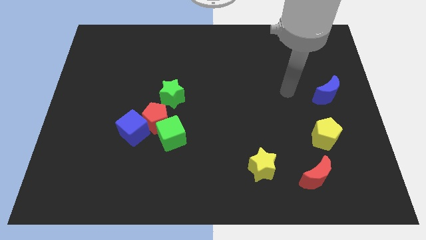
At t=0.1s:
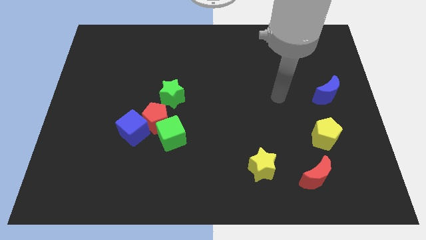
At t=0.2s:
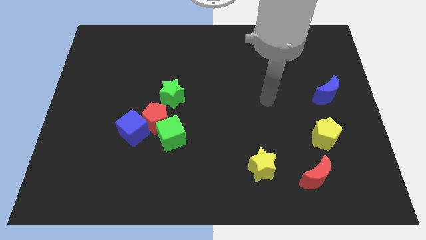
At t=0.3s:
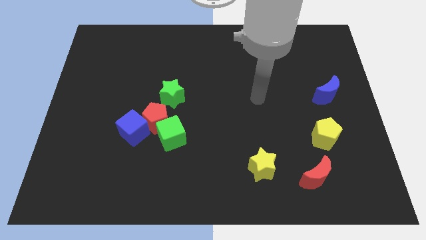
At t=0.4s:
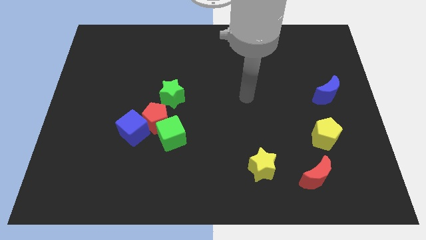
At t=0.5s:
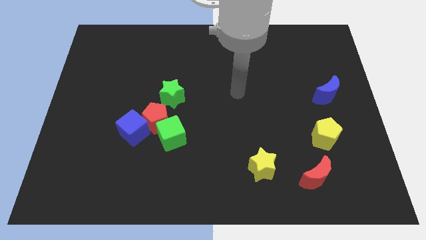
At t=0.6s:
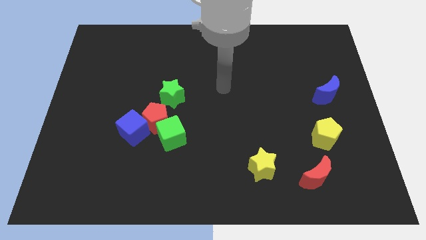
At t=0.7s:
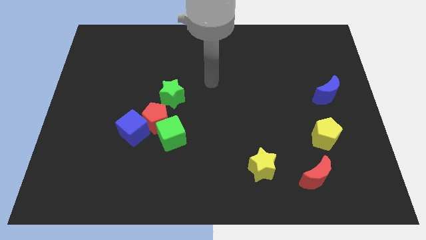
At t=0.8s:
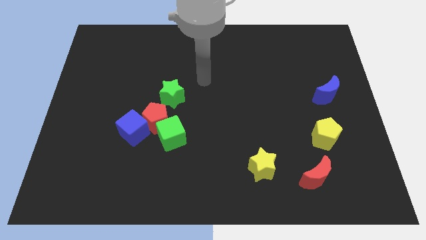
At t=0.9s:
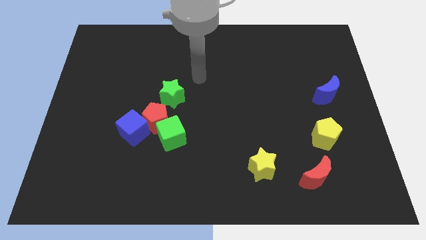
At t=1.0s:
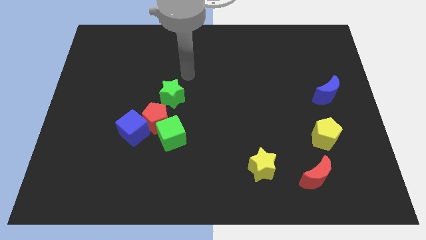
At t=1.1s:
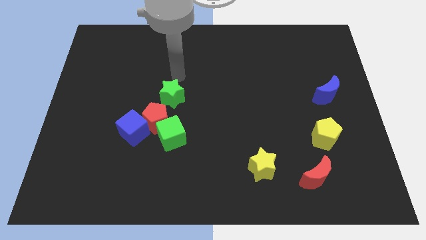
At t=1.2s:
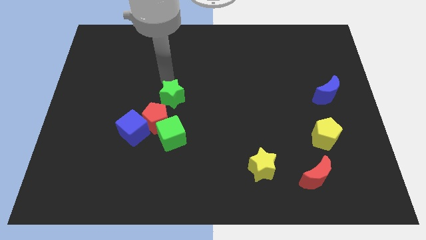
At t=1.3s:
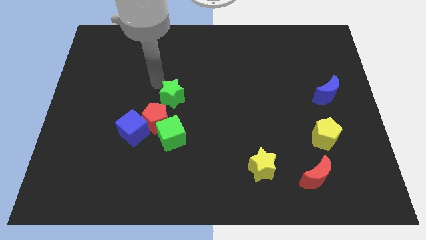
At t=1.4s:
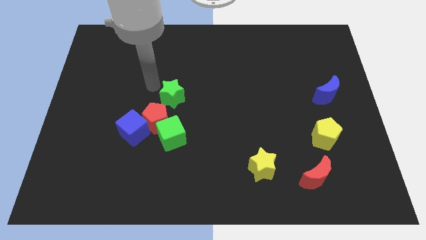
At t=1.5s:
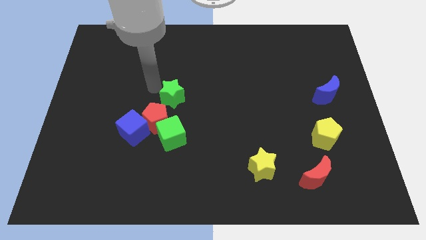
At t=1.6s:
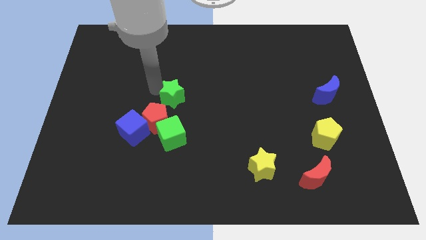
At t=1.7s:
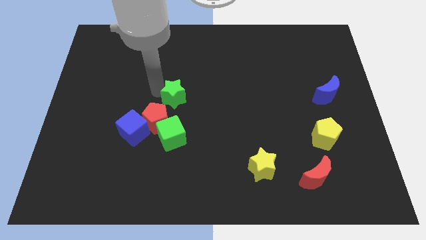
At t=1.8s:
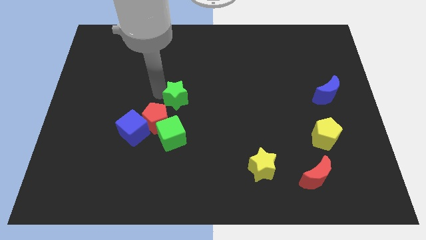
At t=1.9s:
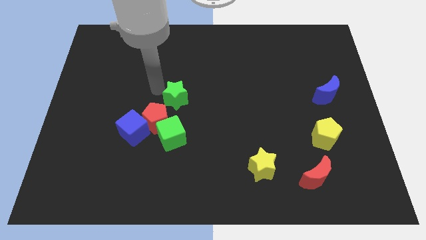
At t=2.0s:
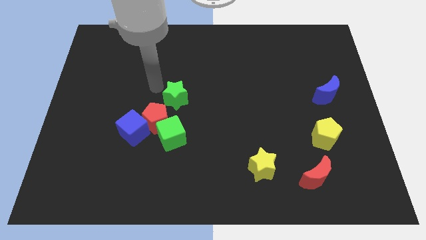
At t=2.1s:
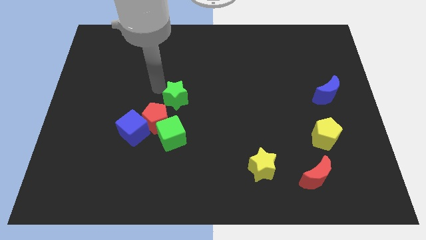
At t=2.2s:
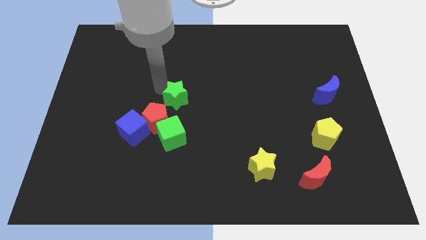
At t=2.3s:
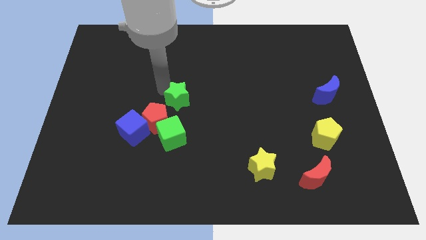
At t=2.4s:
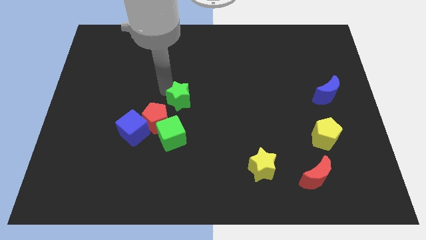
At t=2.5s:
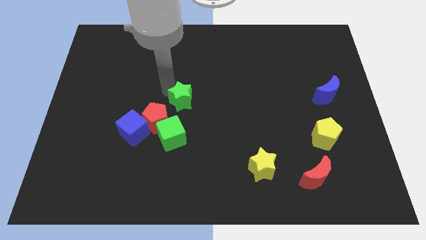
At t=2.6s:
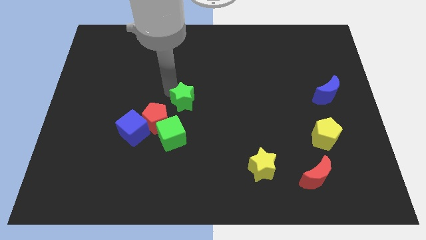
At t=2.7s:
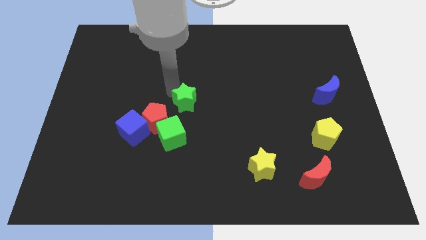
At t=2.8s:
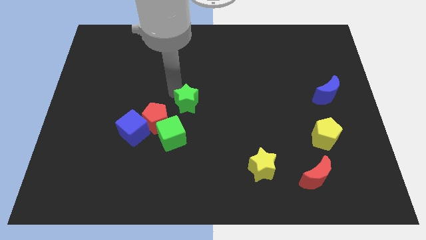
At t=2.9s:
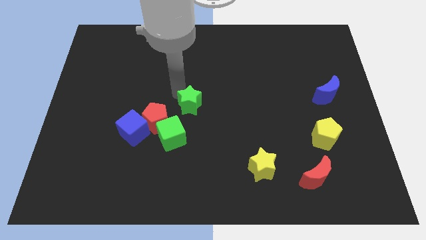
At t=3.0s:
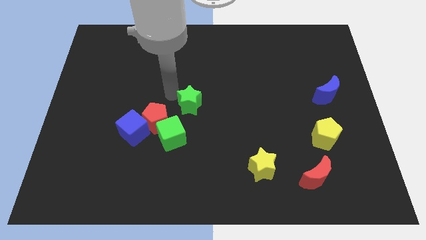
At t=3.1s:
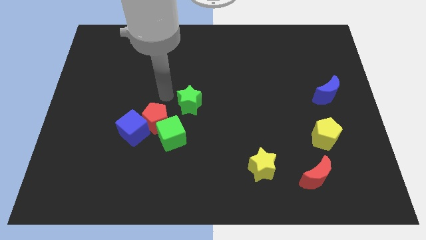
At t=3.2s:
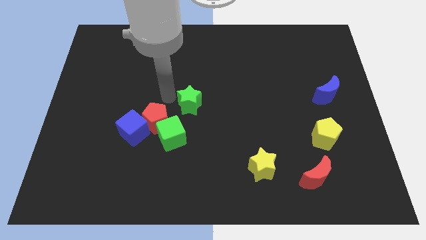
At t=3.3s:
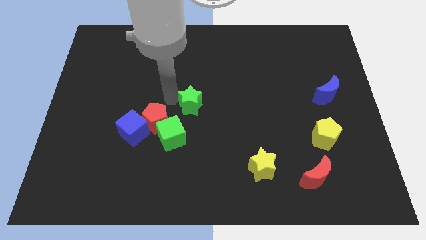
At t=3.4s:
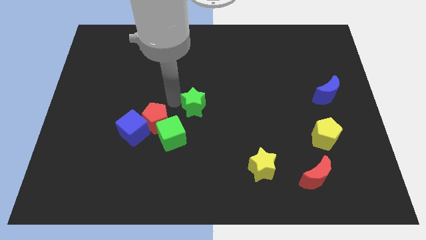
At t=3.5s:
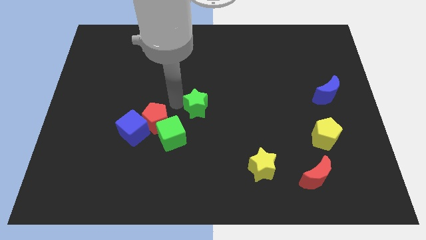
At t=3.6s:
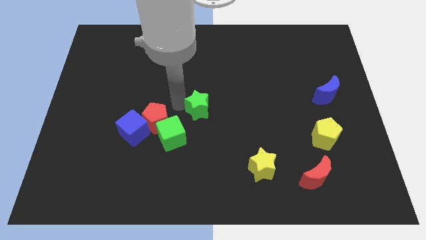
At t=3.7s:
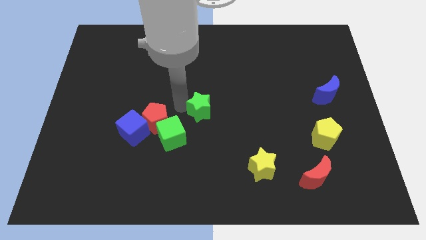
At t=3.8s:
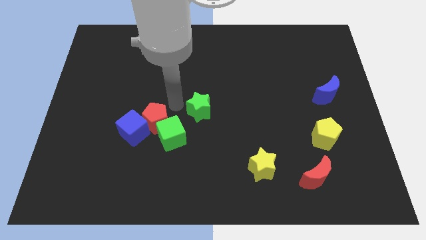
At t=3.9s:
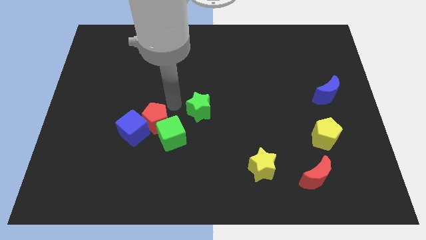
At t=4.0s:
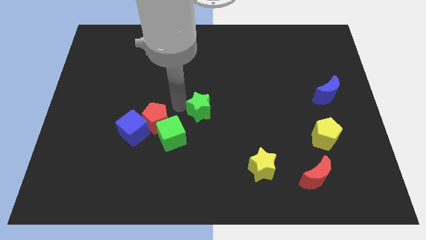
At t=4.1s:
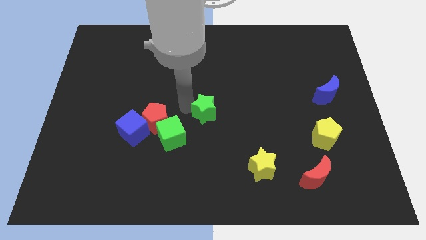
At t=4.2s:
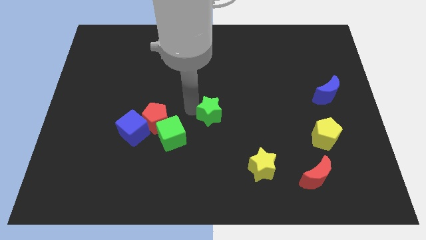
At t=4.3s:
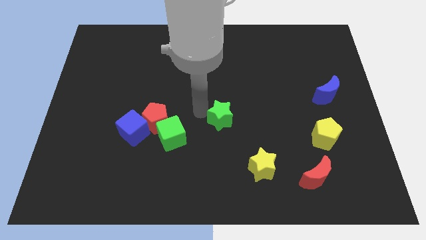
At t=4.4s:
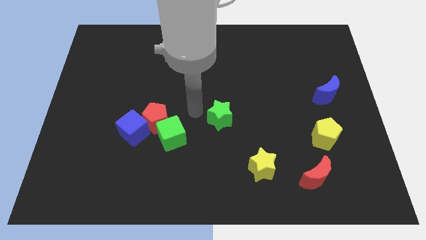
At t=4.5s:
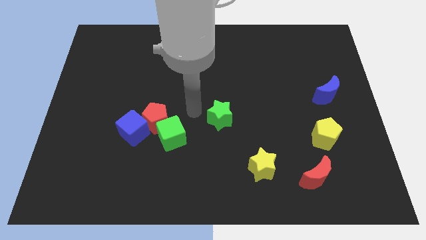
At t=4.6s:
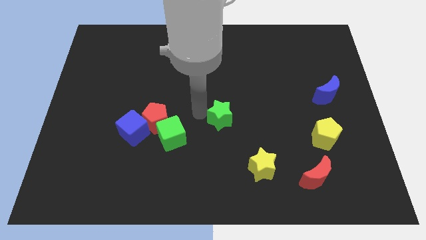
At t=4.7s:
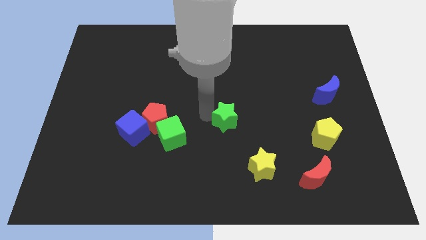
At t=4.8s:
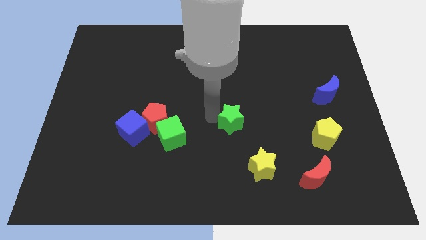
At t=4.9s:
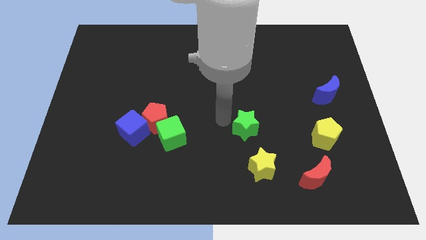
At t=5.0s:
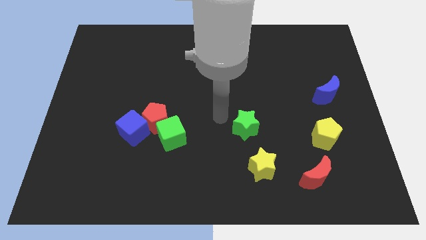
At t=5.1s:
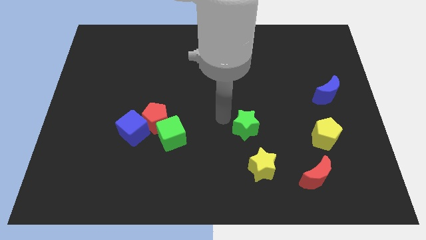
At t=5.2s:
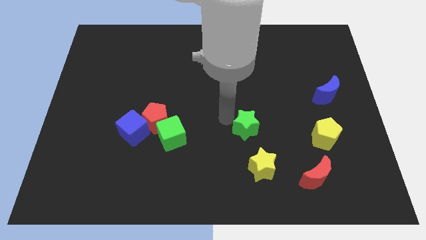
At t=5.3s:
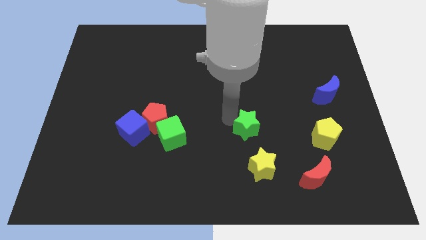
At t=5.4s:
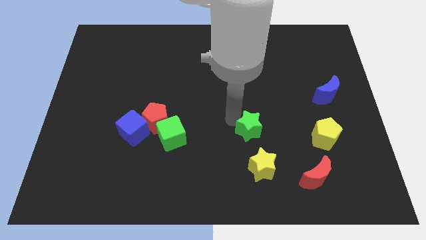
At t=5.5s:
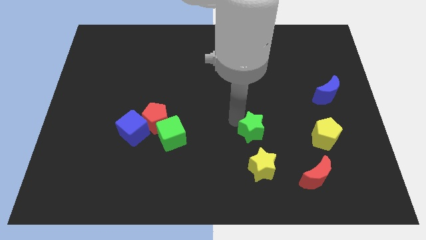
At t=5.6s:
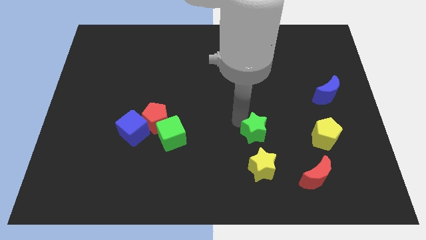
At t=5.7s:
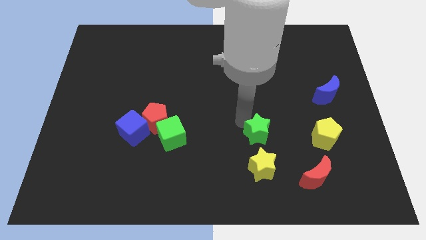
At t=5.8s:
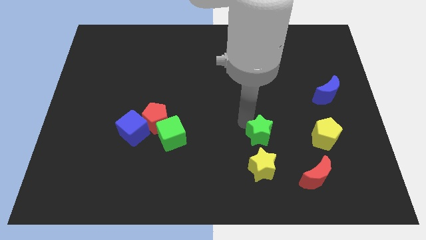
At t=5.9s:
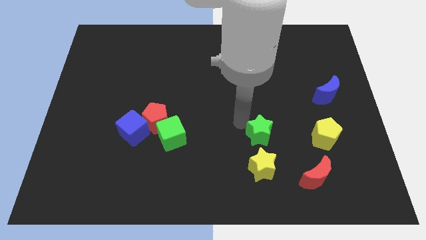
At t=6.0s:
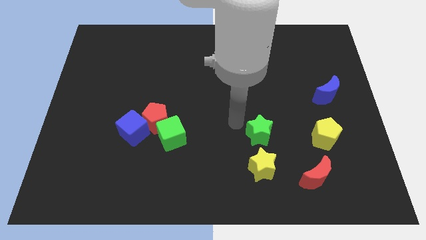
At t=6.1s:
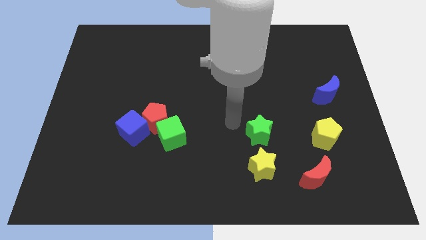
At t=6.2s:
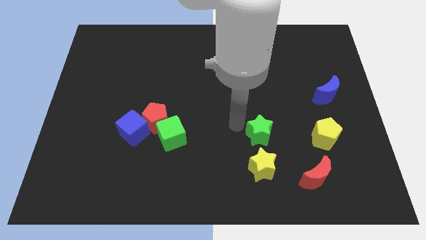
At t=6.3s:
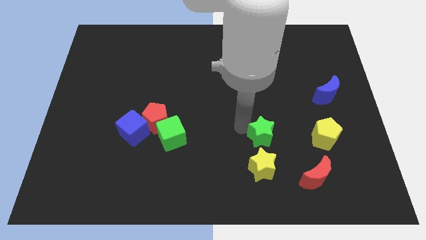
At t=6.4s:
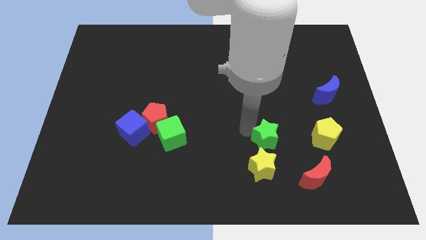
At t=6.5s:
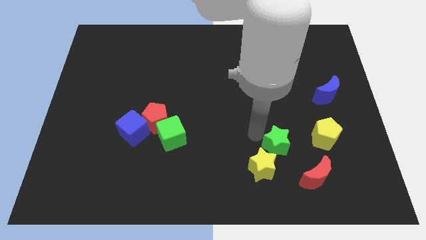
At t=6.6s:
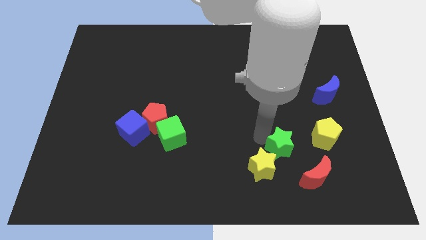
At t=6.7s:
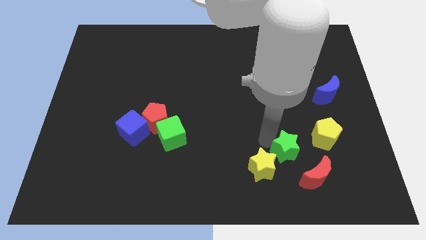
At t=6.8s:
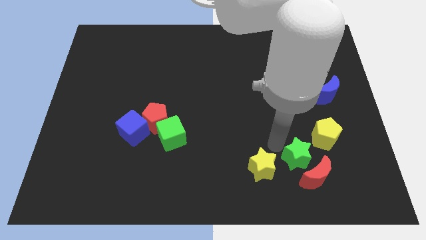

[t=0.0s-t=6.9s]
push the green star to the red moon

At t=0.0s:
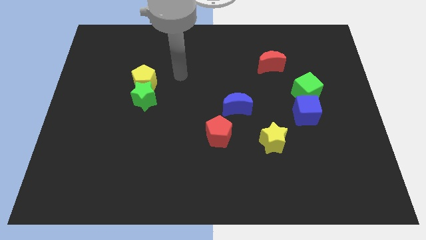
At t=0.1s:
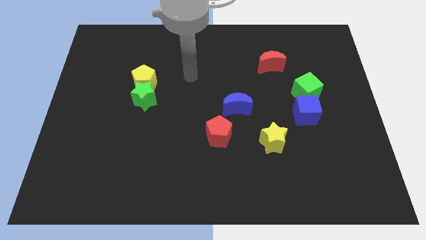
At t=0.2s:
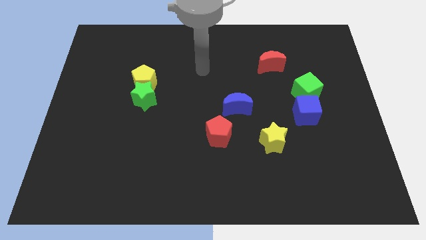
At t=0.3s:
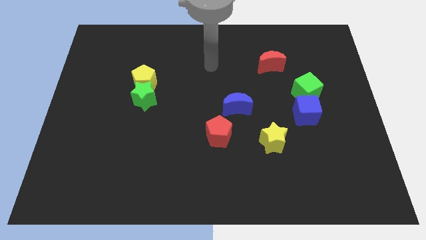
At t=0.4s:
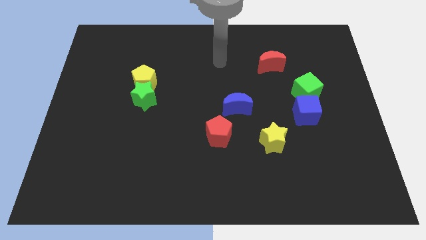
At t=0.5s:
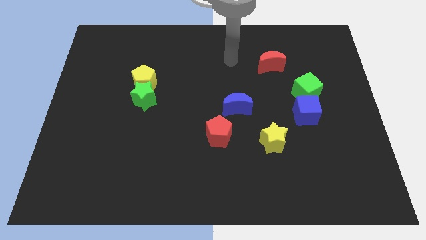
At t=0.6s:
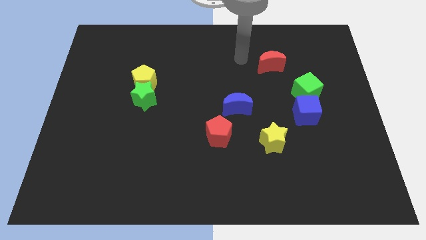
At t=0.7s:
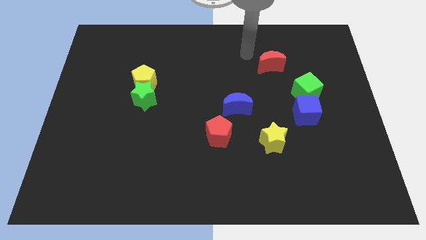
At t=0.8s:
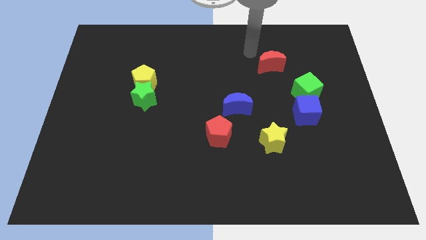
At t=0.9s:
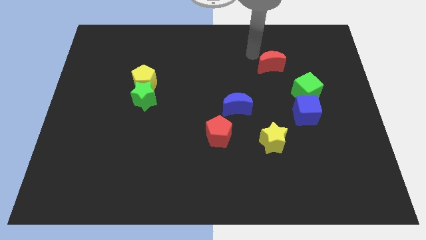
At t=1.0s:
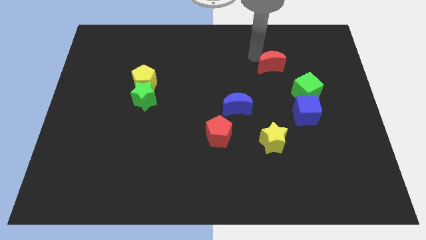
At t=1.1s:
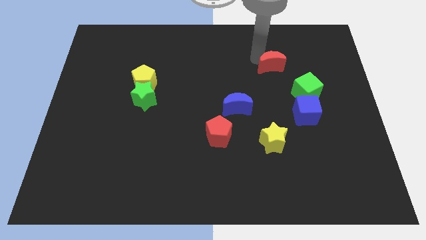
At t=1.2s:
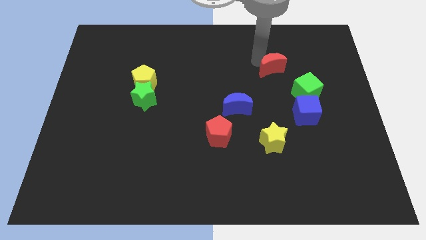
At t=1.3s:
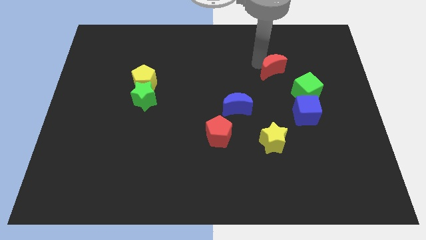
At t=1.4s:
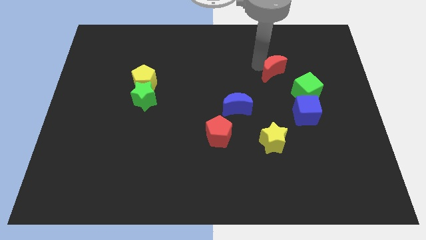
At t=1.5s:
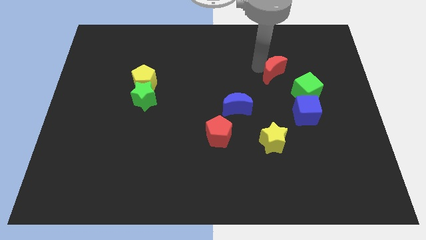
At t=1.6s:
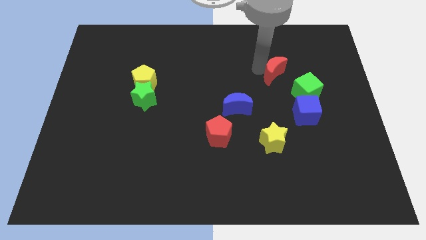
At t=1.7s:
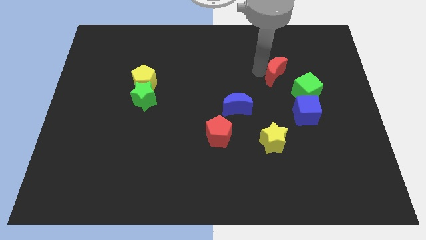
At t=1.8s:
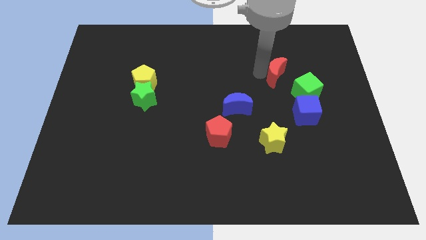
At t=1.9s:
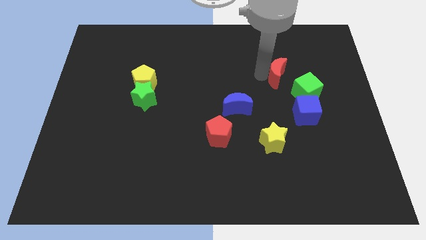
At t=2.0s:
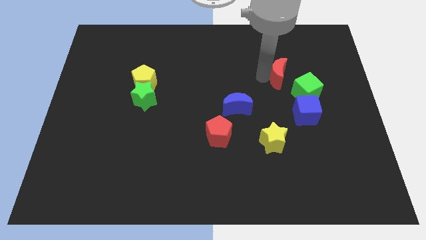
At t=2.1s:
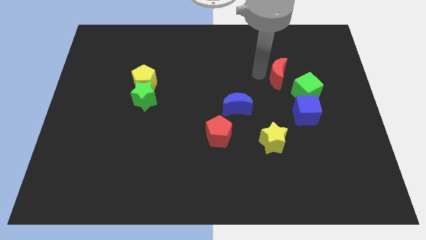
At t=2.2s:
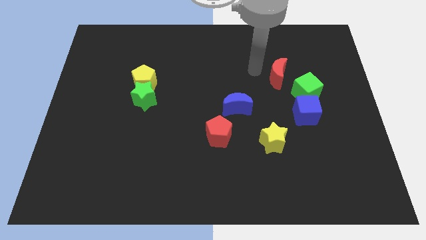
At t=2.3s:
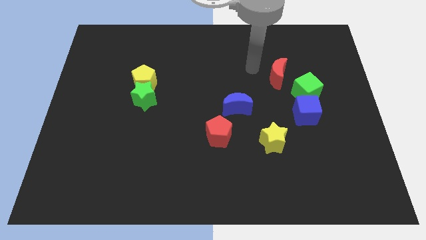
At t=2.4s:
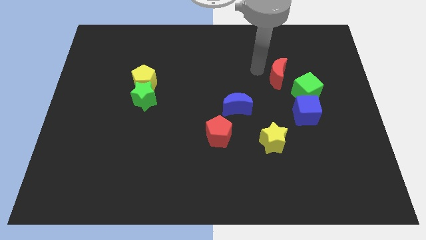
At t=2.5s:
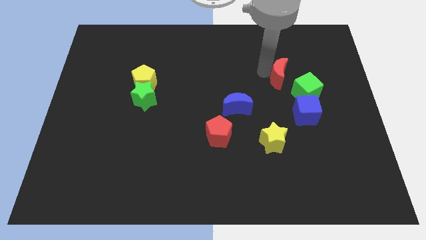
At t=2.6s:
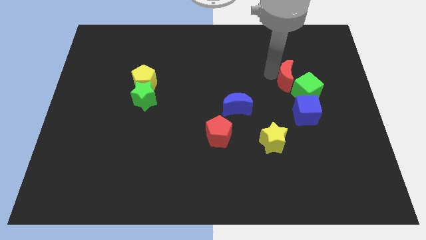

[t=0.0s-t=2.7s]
move the red moon next to the green cube
